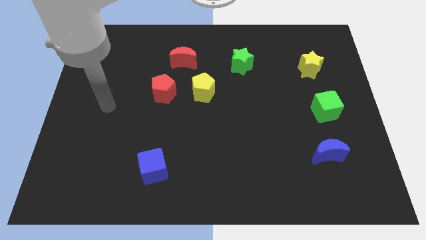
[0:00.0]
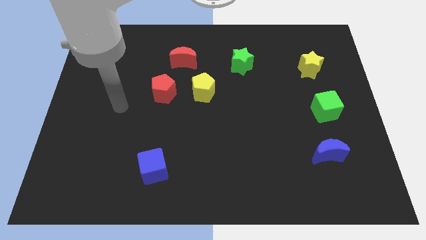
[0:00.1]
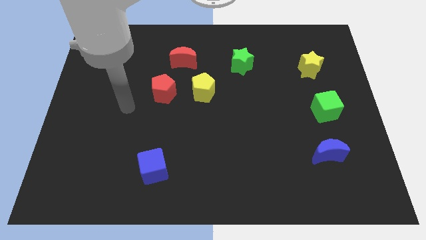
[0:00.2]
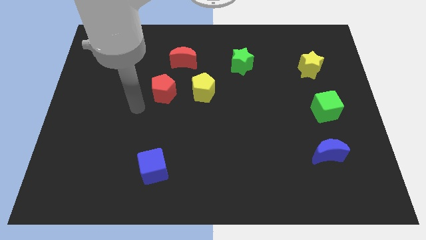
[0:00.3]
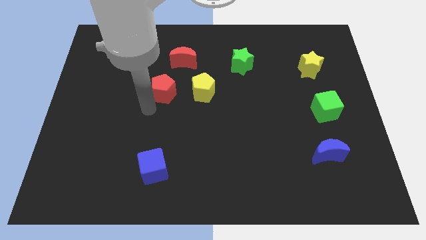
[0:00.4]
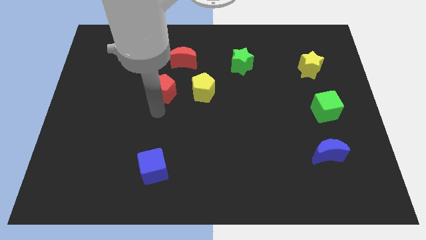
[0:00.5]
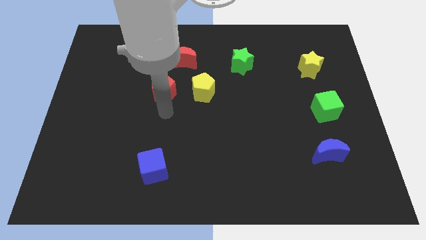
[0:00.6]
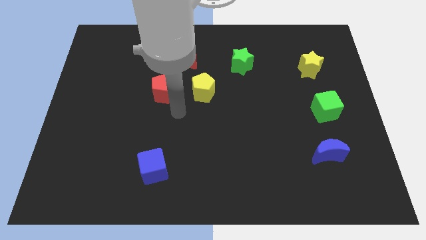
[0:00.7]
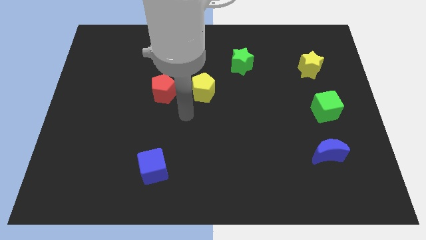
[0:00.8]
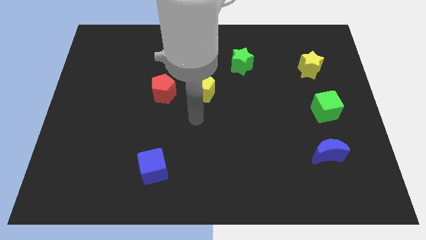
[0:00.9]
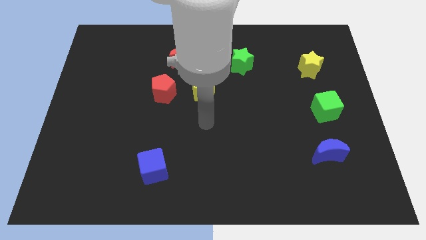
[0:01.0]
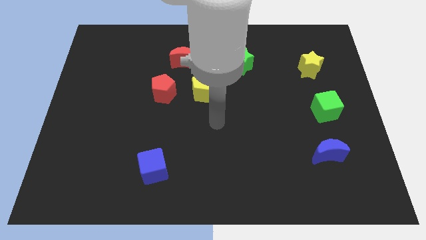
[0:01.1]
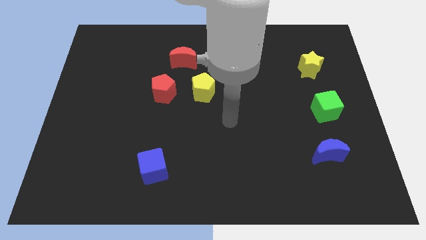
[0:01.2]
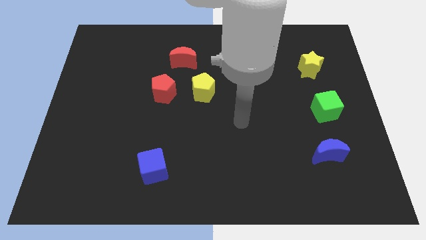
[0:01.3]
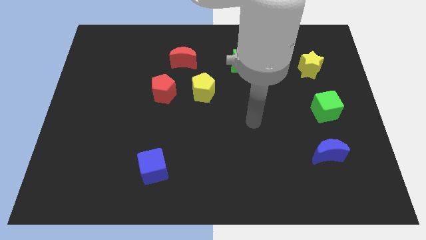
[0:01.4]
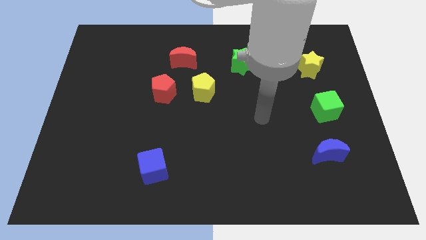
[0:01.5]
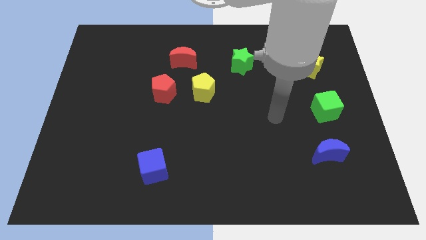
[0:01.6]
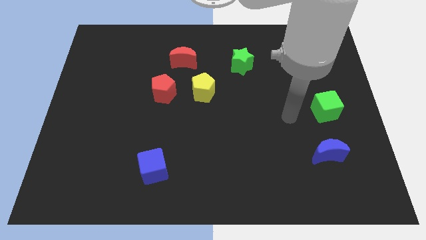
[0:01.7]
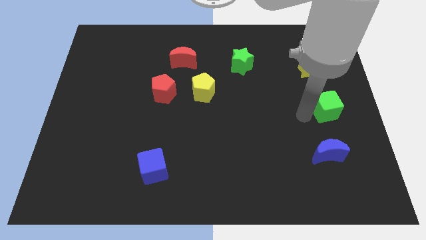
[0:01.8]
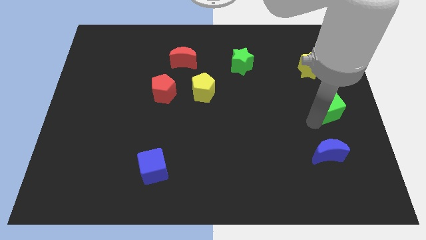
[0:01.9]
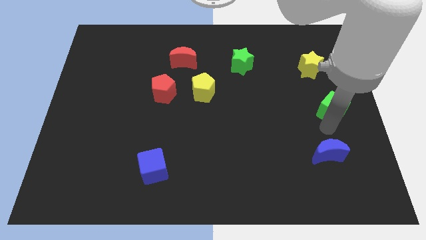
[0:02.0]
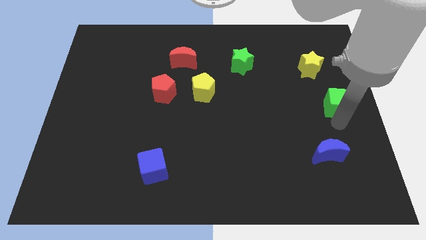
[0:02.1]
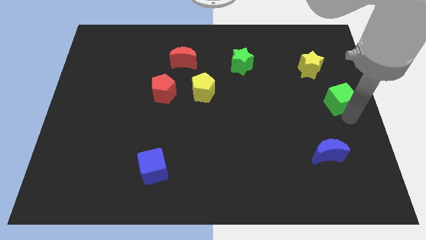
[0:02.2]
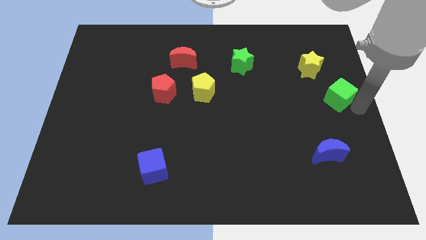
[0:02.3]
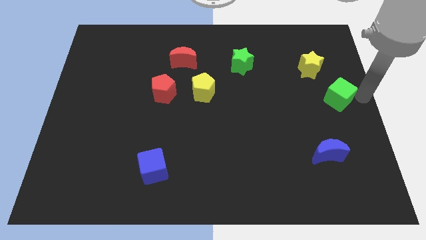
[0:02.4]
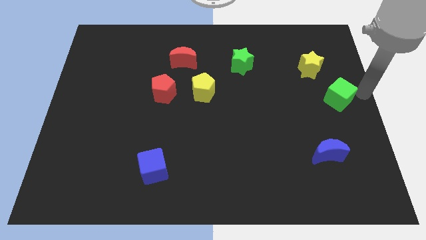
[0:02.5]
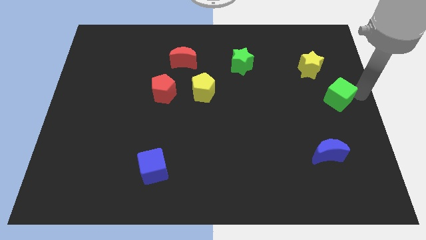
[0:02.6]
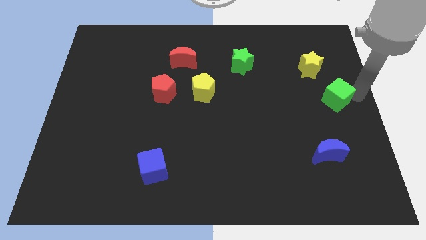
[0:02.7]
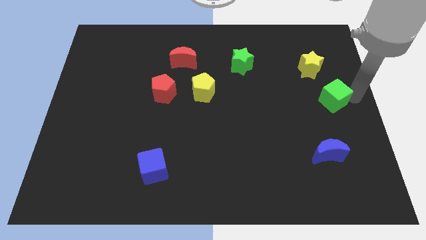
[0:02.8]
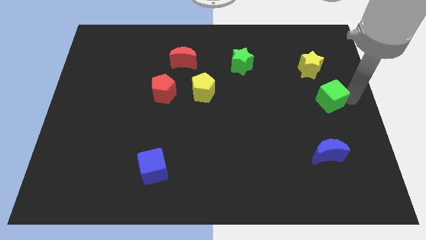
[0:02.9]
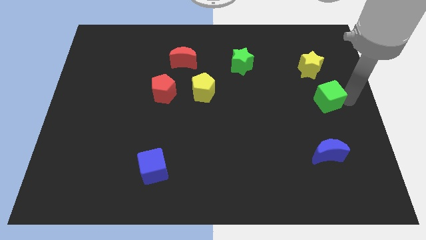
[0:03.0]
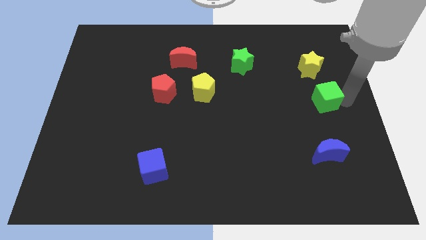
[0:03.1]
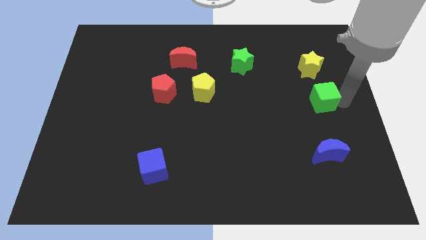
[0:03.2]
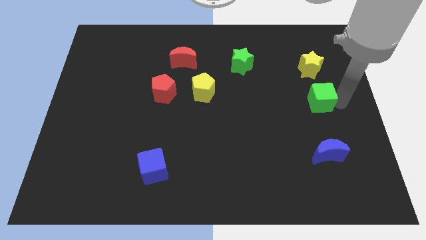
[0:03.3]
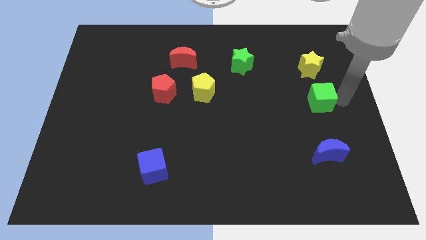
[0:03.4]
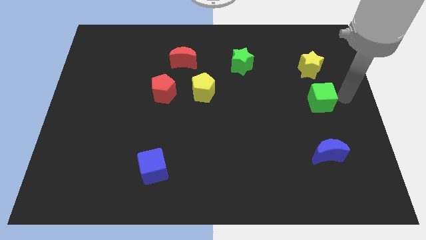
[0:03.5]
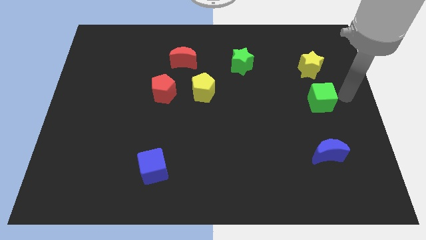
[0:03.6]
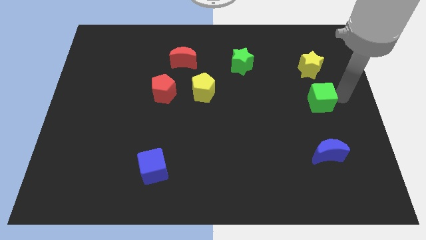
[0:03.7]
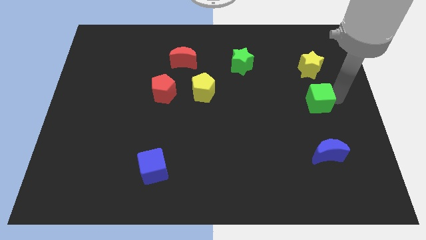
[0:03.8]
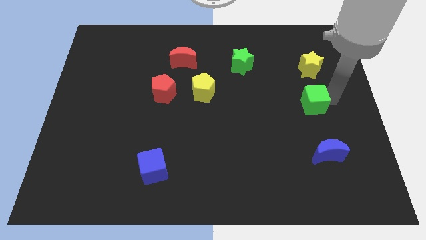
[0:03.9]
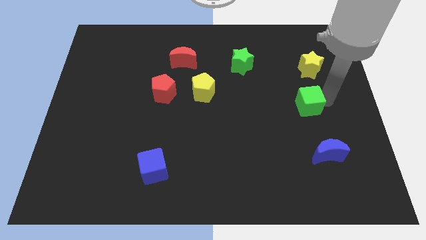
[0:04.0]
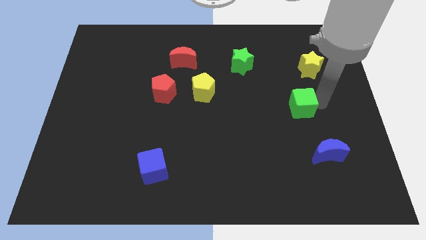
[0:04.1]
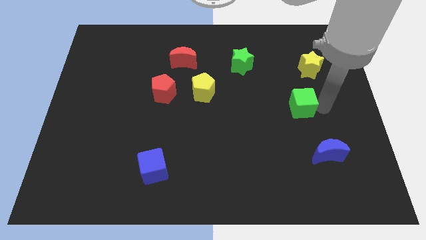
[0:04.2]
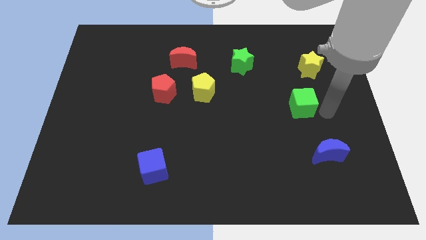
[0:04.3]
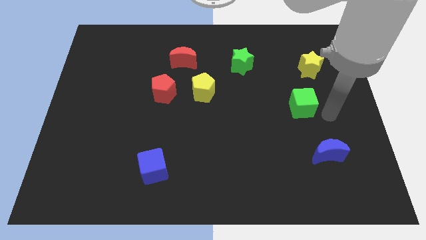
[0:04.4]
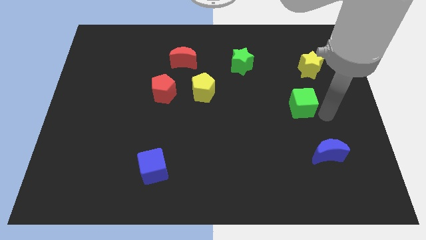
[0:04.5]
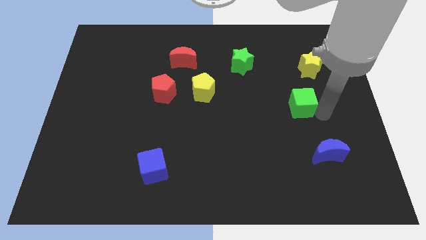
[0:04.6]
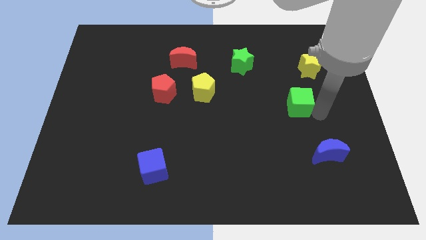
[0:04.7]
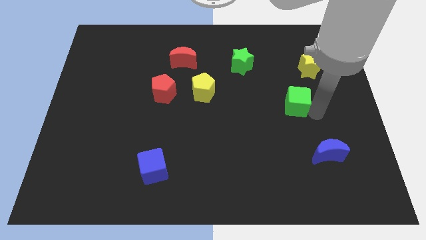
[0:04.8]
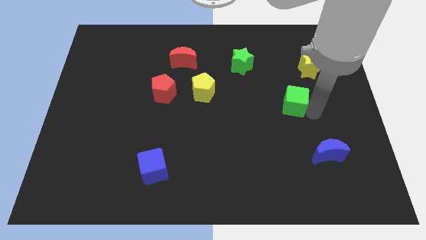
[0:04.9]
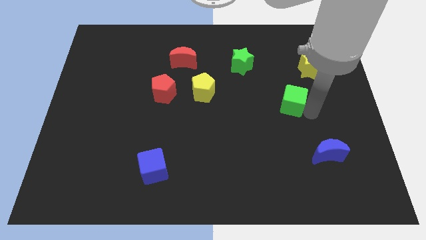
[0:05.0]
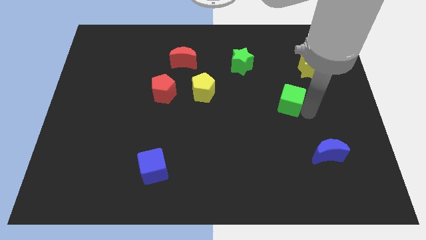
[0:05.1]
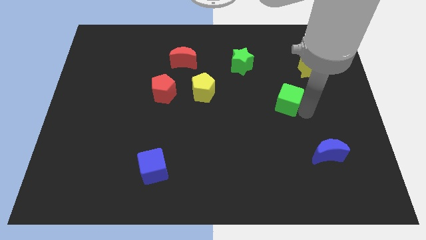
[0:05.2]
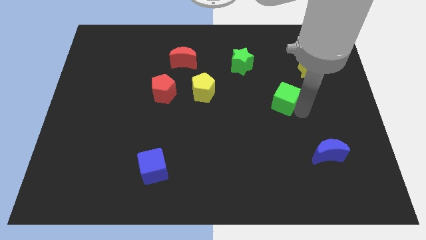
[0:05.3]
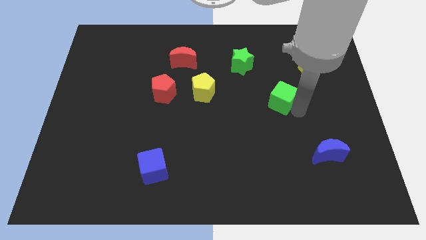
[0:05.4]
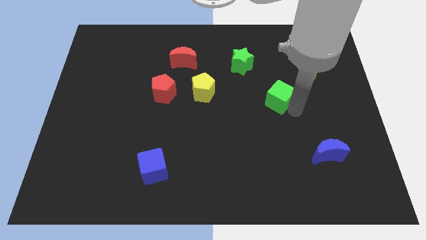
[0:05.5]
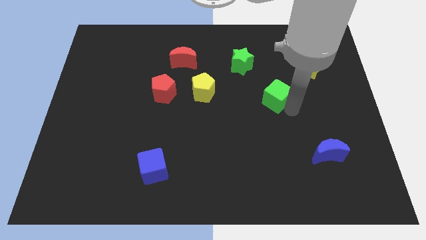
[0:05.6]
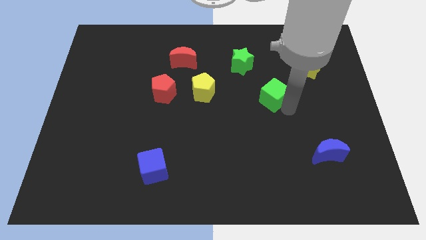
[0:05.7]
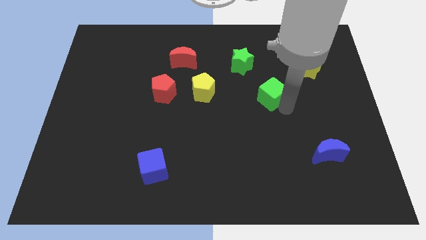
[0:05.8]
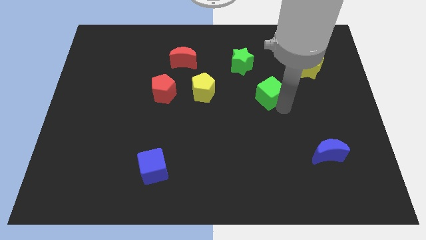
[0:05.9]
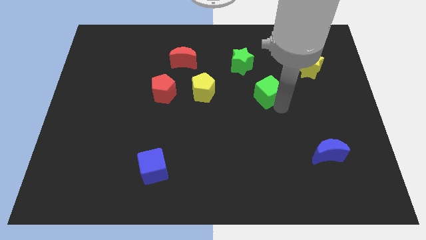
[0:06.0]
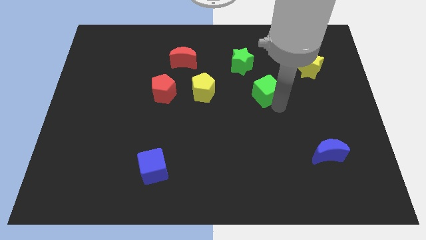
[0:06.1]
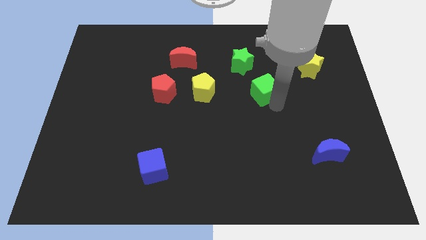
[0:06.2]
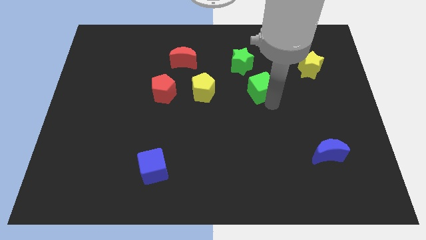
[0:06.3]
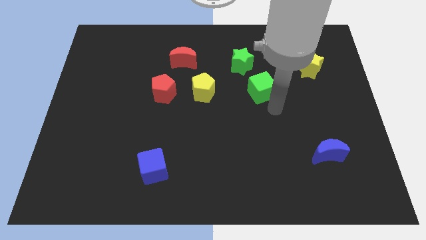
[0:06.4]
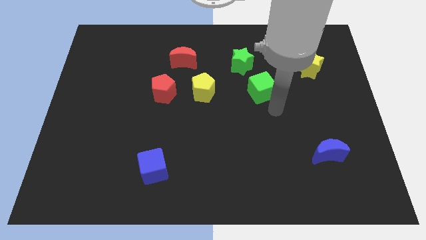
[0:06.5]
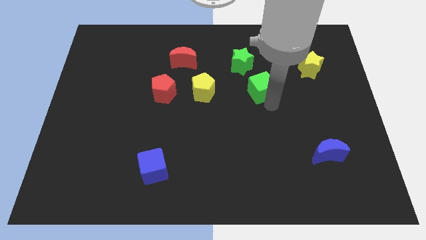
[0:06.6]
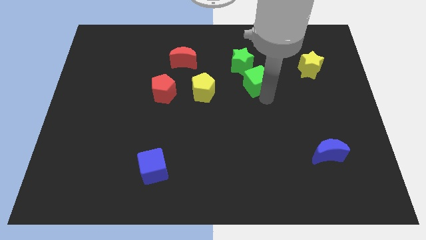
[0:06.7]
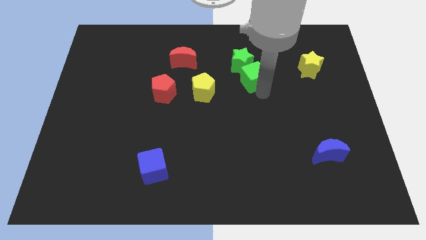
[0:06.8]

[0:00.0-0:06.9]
push the green cube towards the green star
